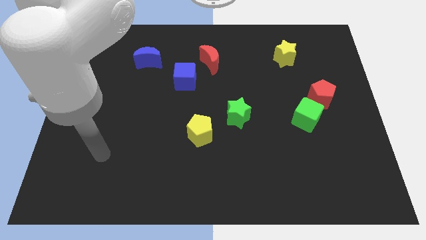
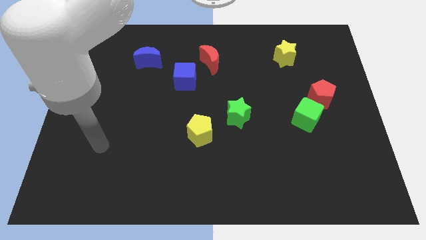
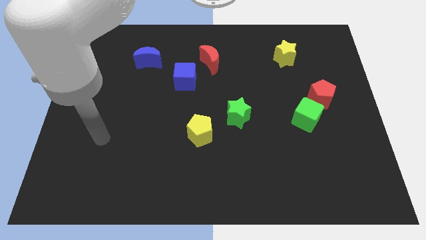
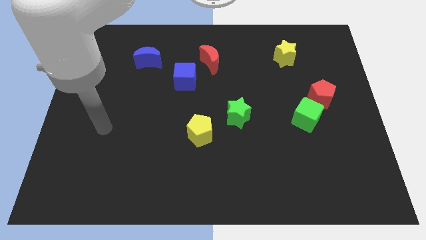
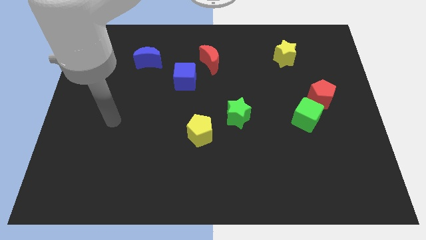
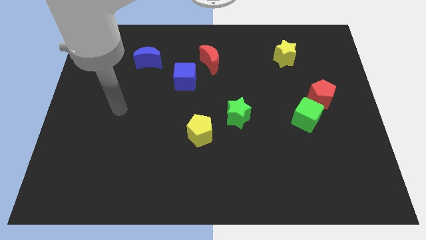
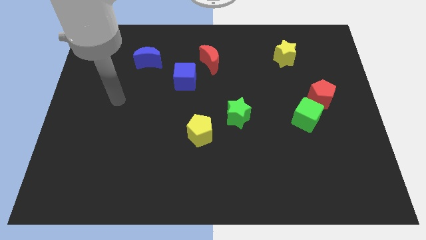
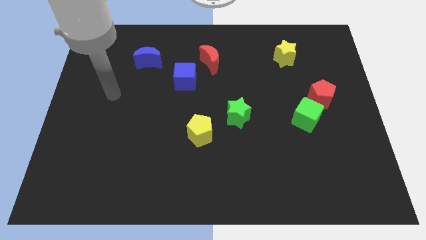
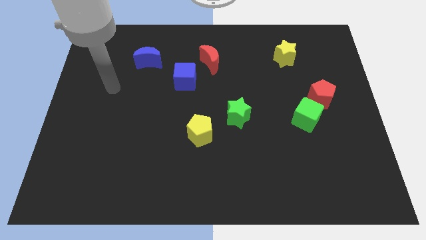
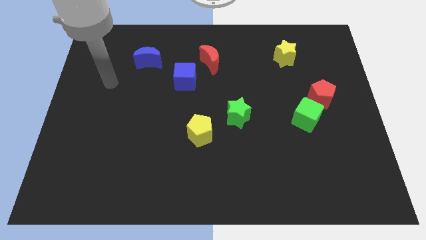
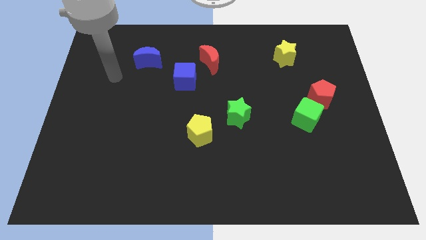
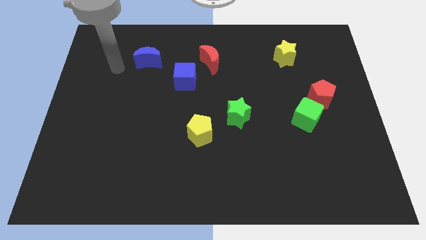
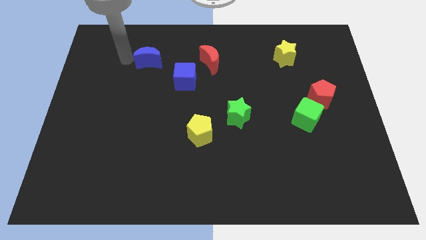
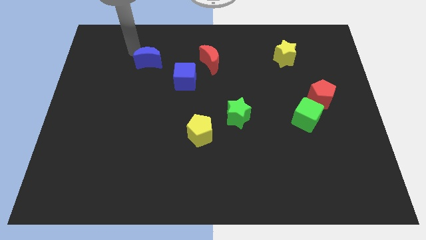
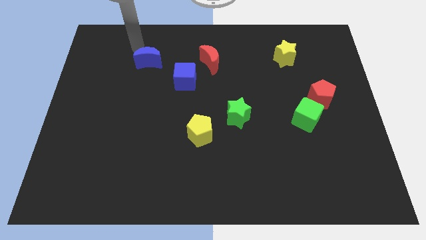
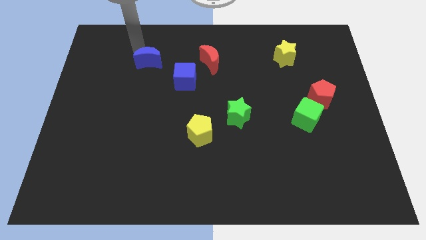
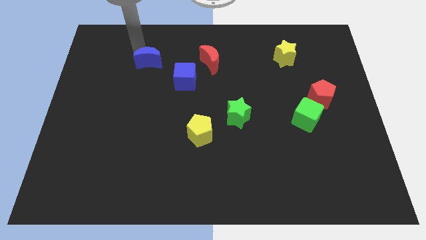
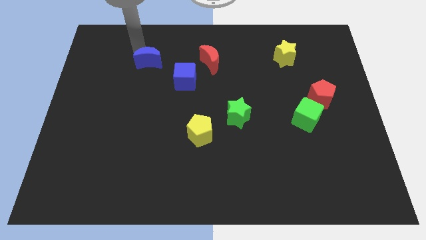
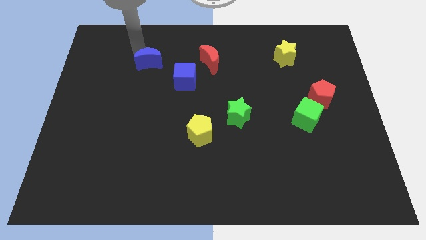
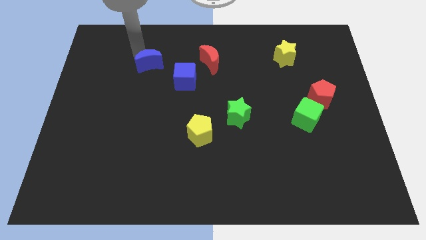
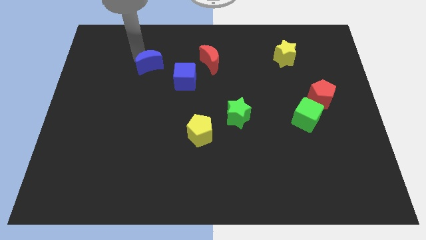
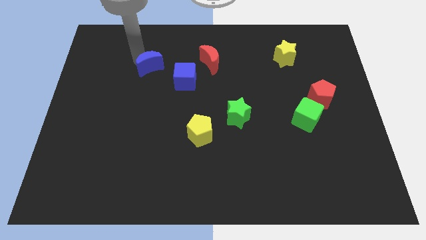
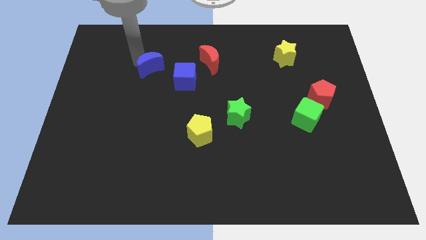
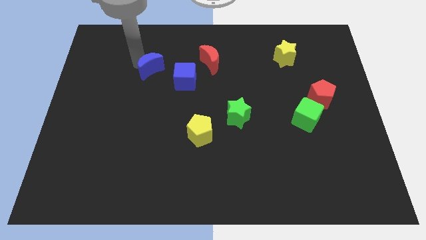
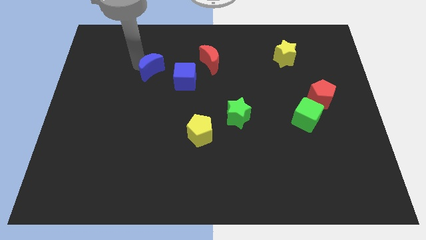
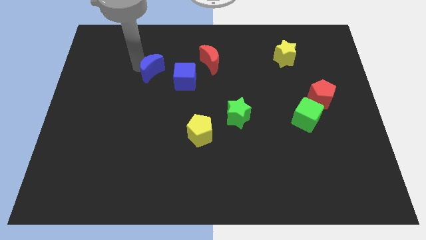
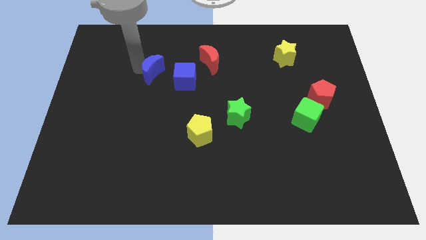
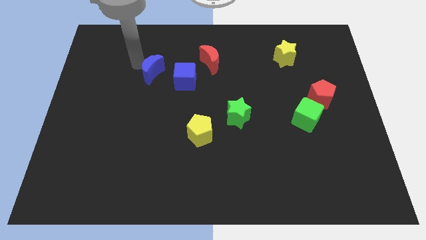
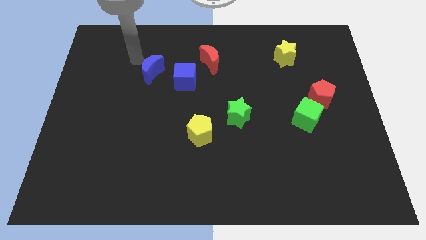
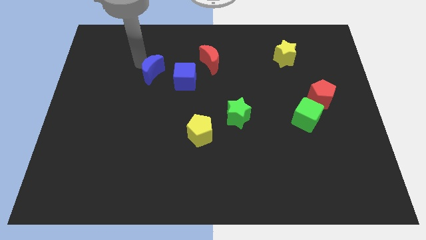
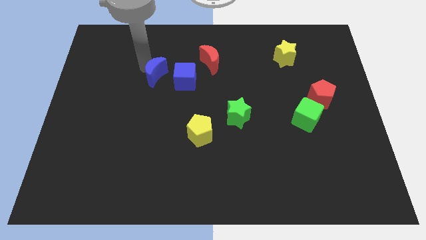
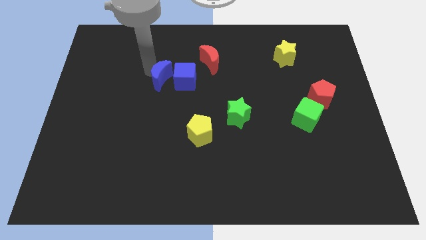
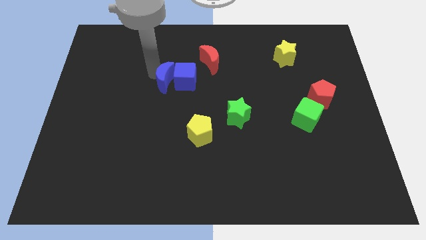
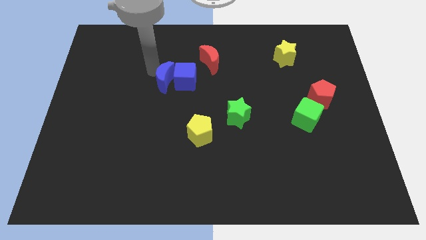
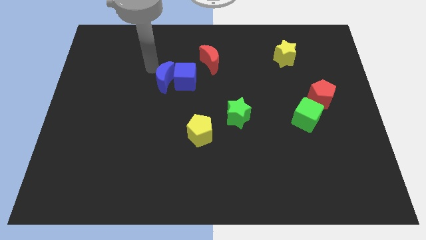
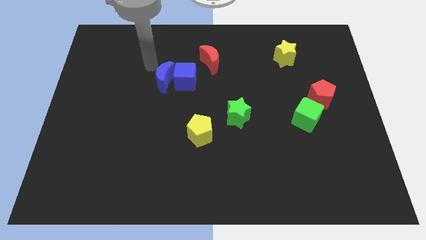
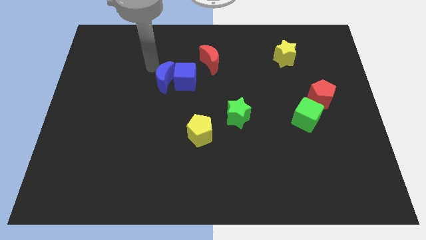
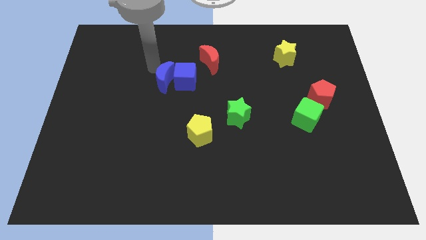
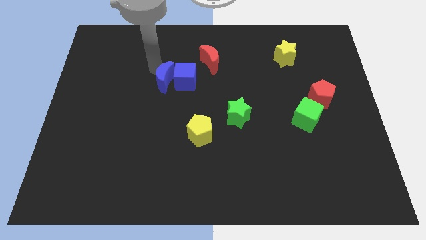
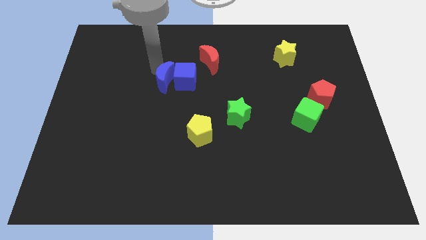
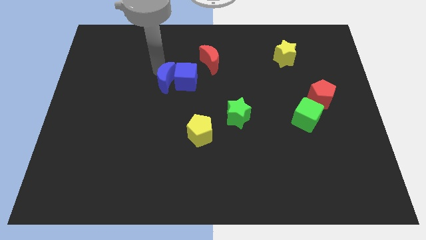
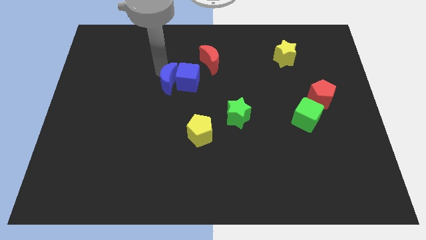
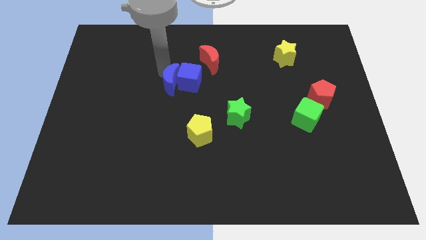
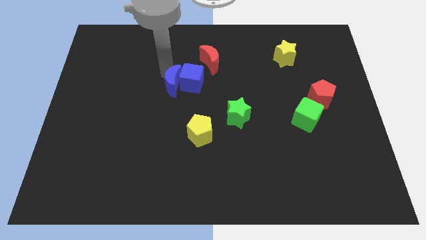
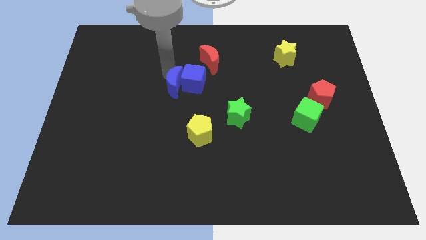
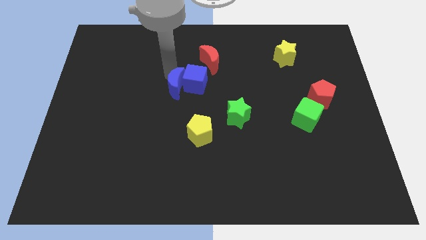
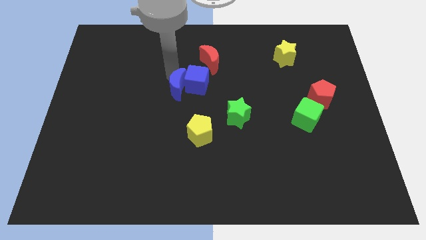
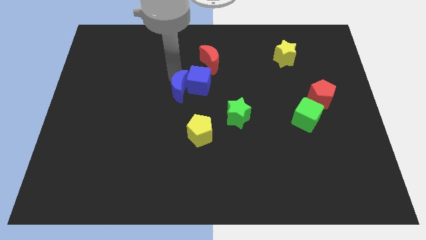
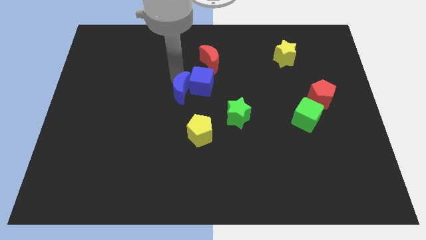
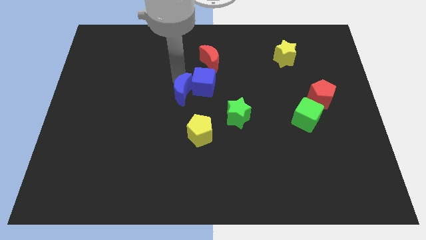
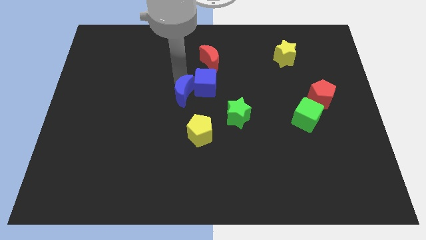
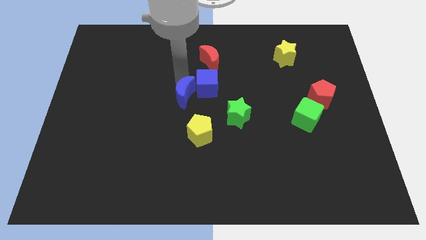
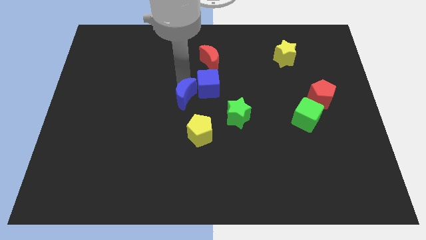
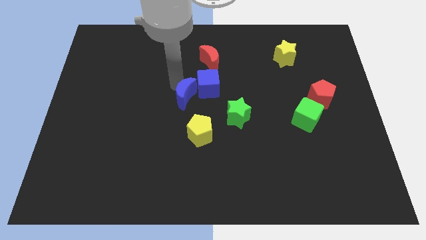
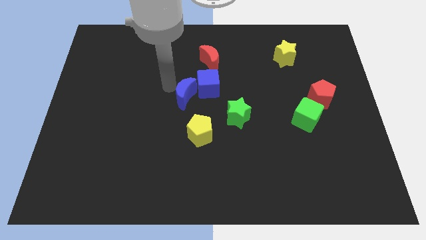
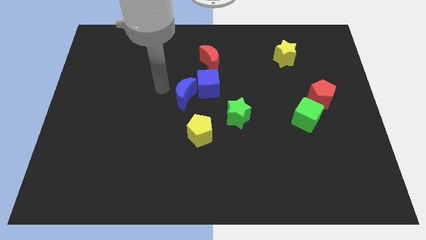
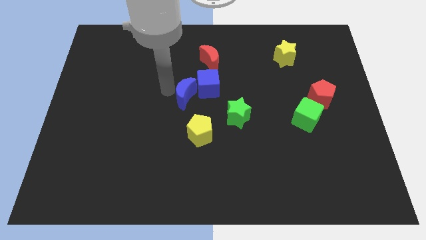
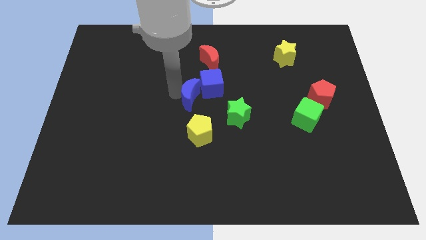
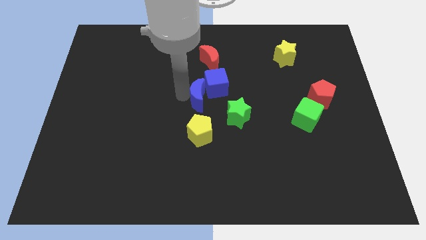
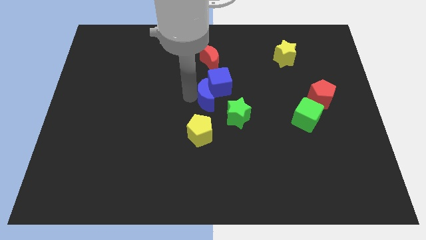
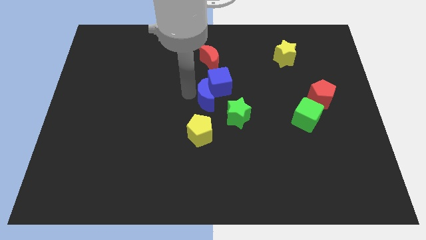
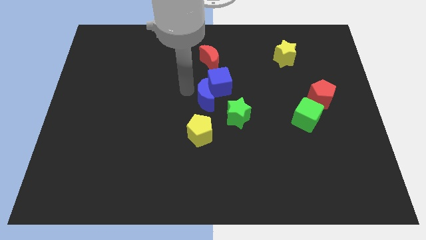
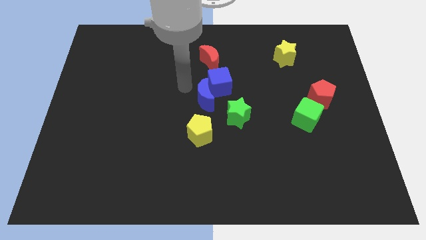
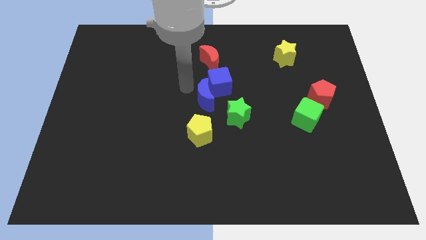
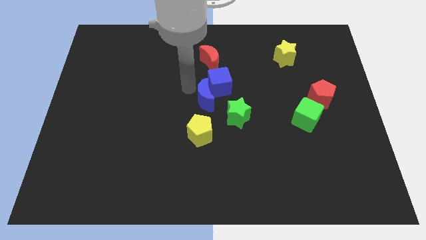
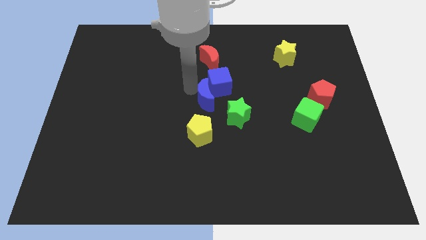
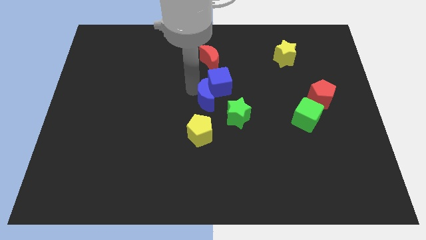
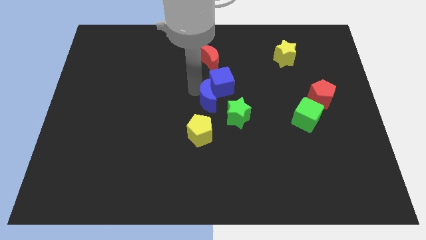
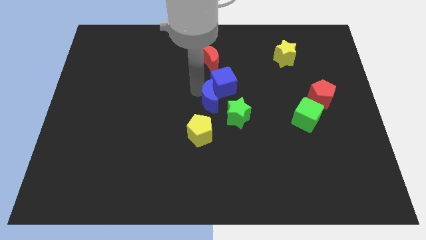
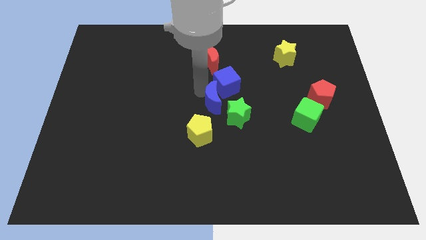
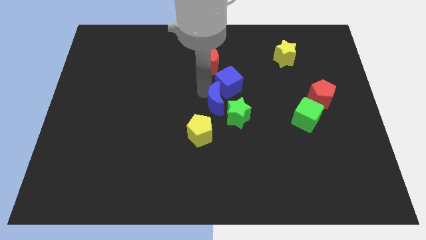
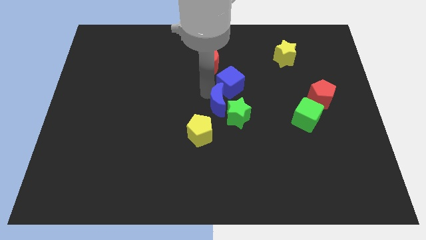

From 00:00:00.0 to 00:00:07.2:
push the blue moon next to the green star
